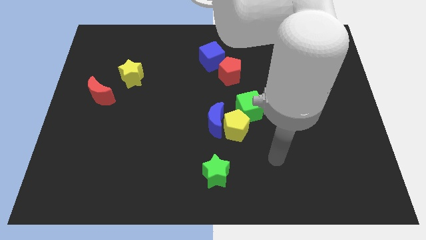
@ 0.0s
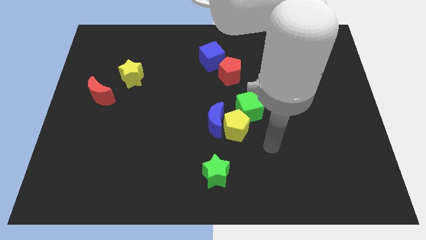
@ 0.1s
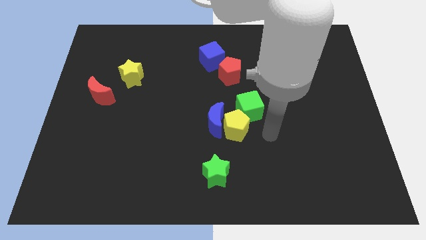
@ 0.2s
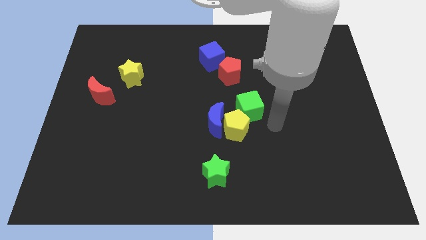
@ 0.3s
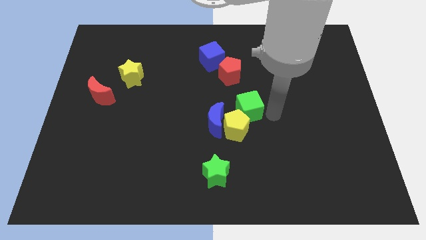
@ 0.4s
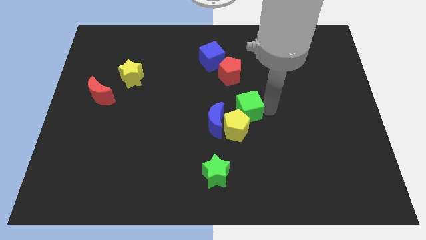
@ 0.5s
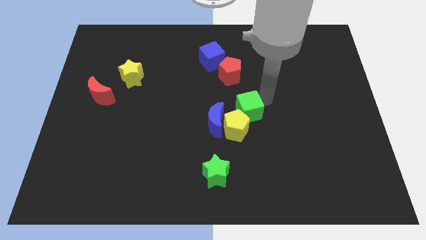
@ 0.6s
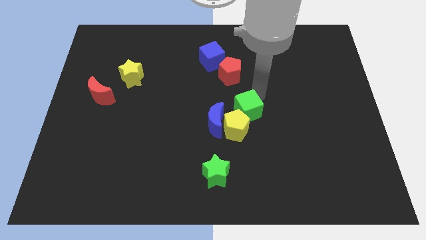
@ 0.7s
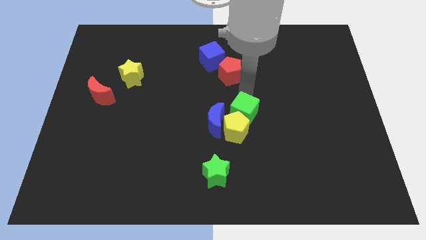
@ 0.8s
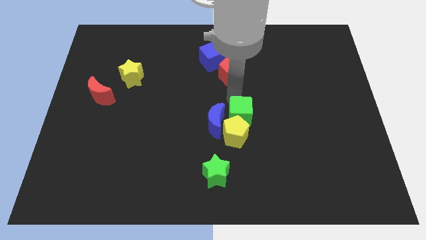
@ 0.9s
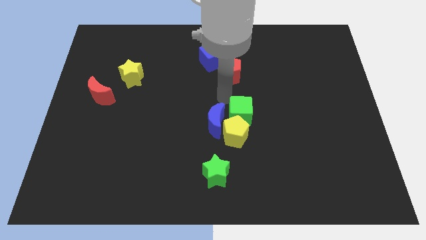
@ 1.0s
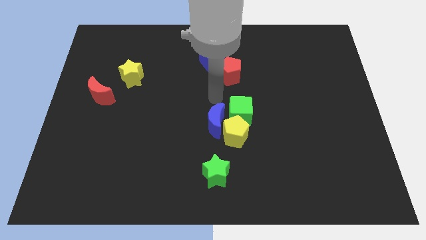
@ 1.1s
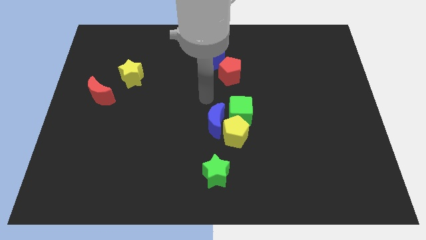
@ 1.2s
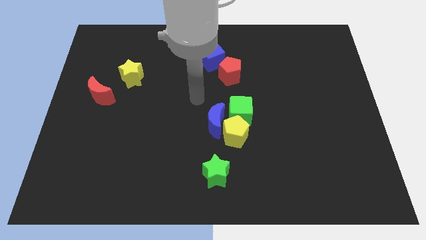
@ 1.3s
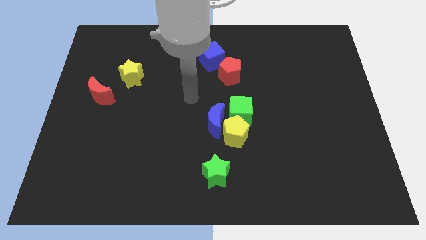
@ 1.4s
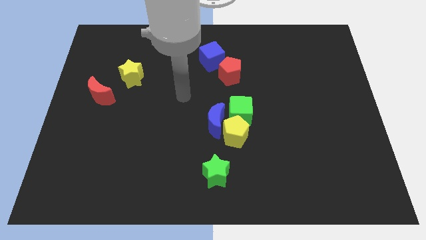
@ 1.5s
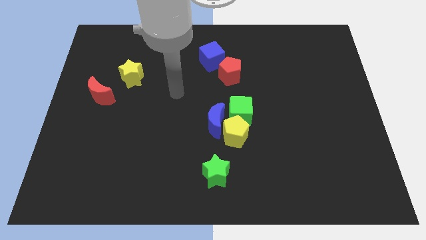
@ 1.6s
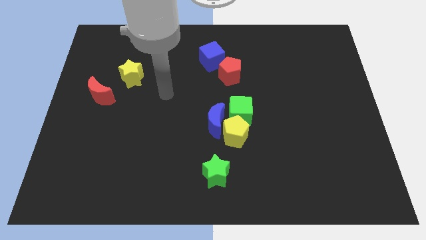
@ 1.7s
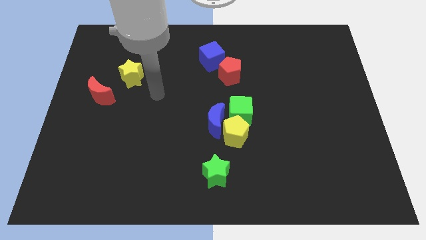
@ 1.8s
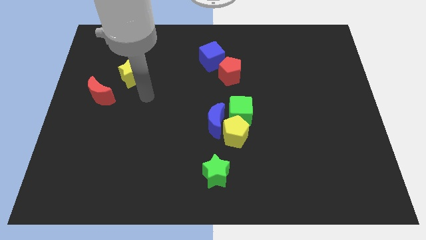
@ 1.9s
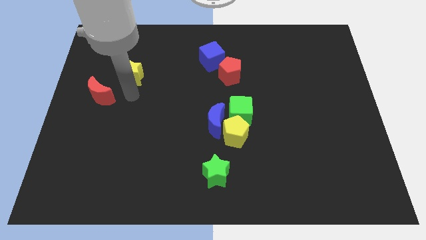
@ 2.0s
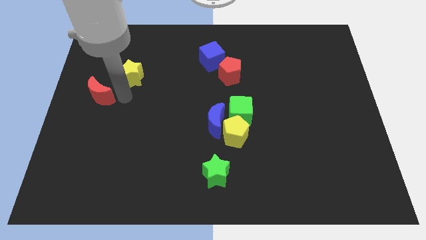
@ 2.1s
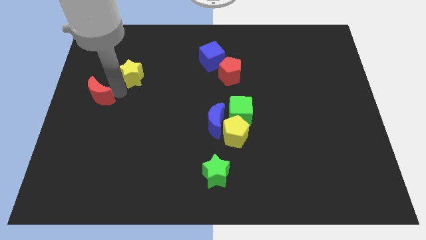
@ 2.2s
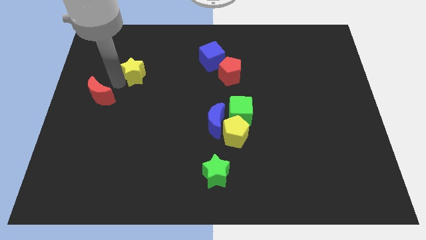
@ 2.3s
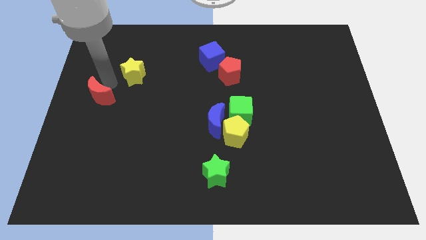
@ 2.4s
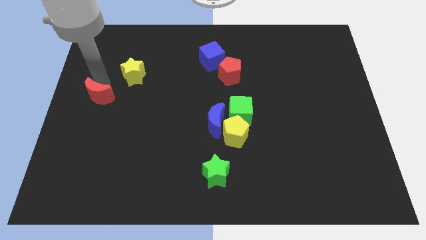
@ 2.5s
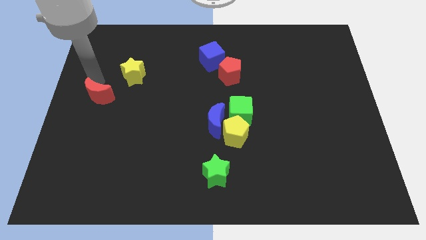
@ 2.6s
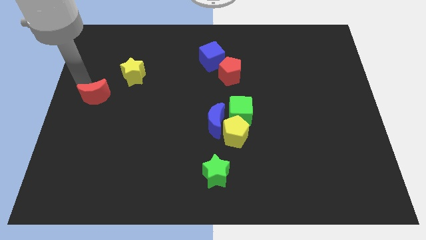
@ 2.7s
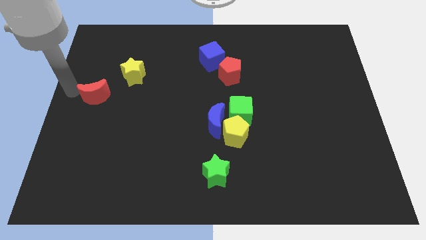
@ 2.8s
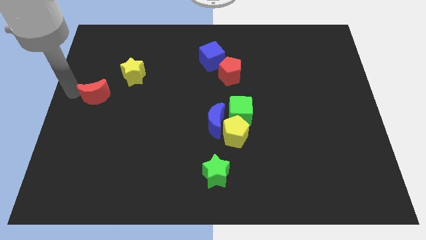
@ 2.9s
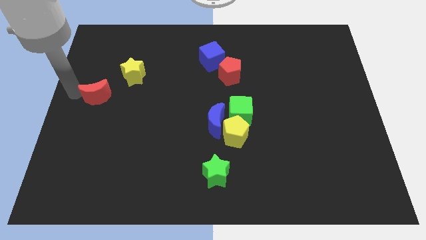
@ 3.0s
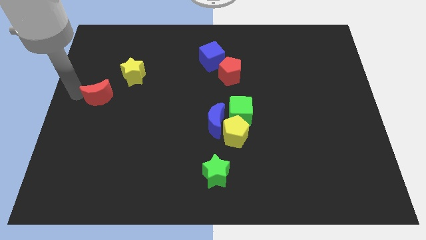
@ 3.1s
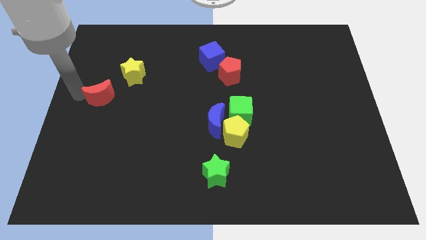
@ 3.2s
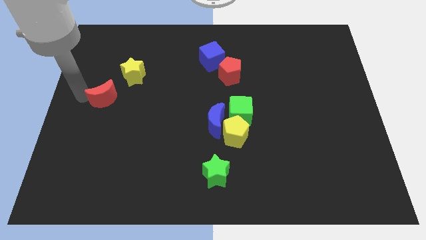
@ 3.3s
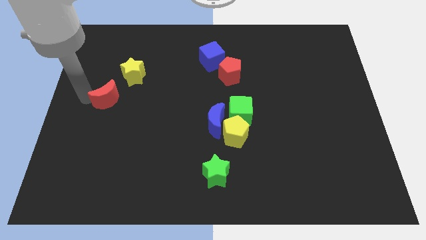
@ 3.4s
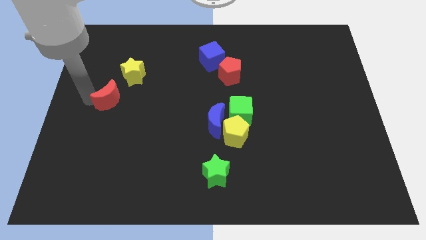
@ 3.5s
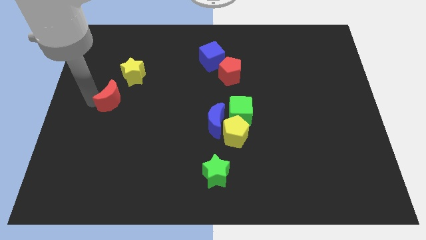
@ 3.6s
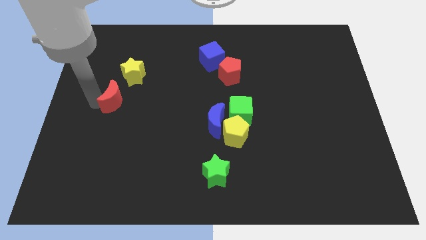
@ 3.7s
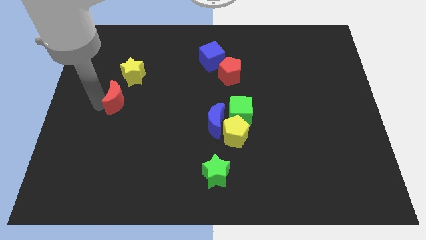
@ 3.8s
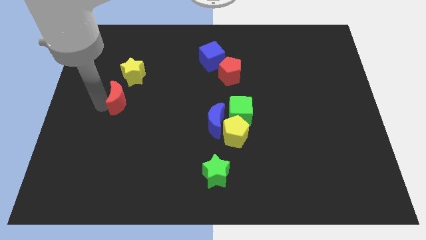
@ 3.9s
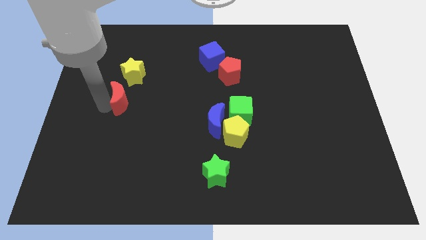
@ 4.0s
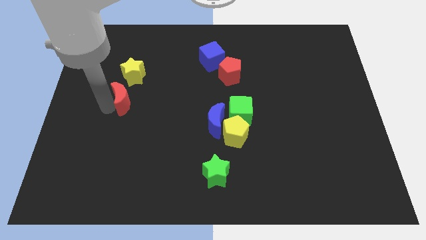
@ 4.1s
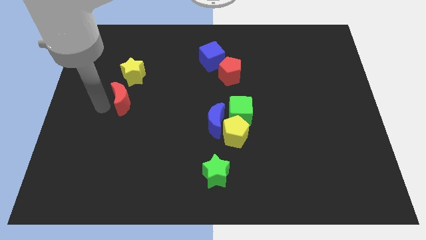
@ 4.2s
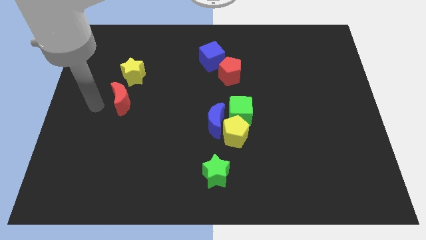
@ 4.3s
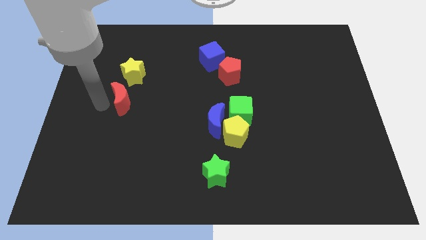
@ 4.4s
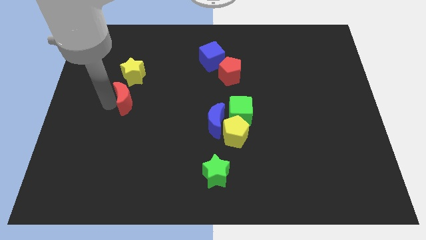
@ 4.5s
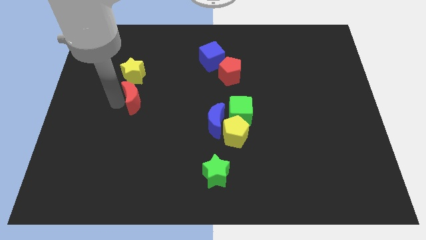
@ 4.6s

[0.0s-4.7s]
slightly slide the red moon right

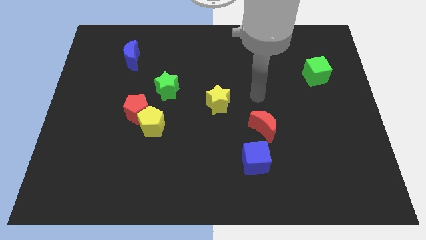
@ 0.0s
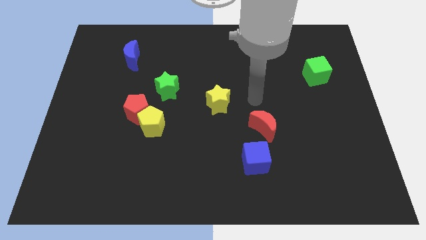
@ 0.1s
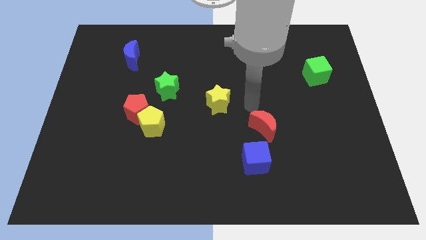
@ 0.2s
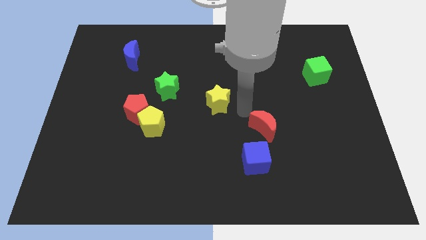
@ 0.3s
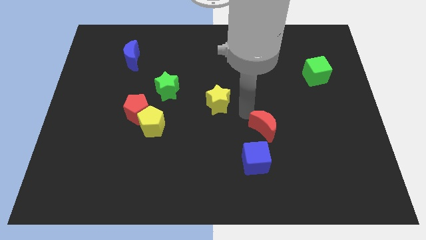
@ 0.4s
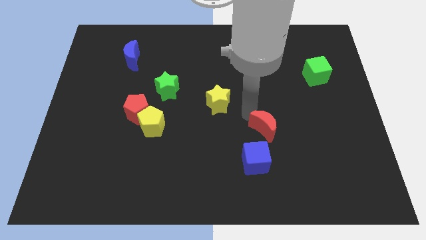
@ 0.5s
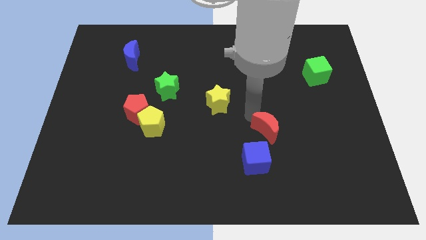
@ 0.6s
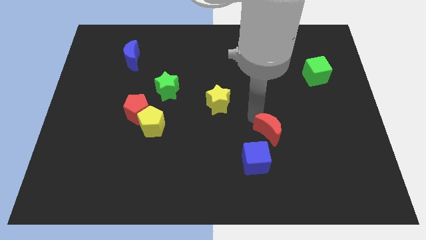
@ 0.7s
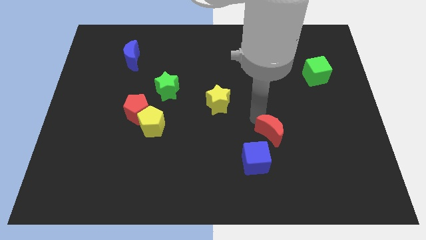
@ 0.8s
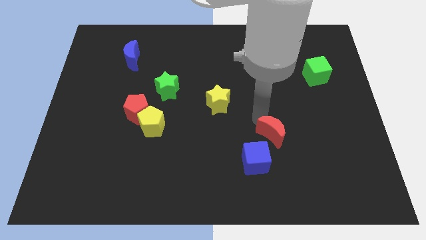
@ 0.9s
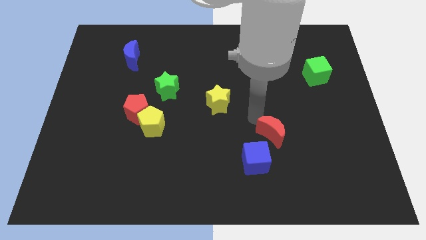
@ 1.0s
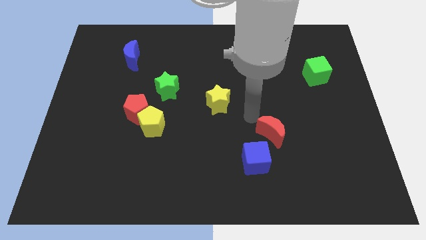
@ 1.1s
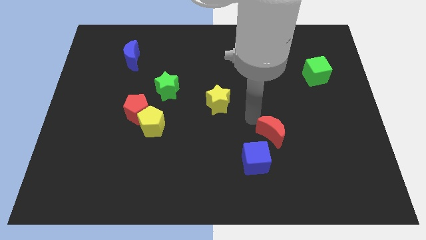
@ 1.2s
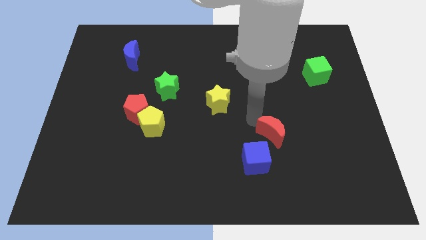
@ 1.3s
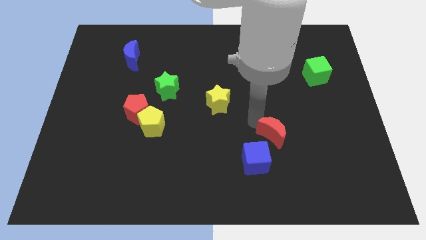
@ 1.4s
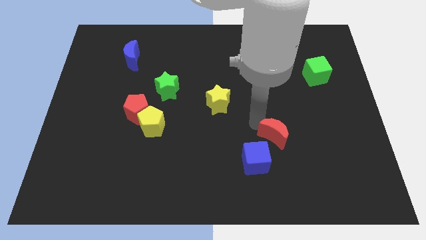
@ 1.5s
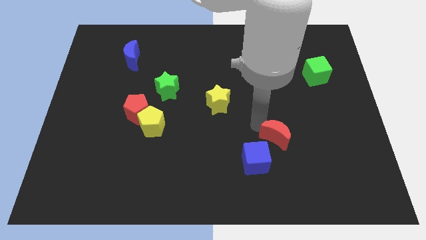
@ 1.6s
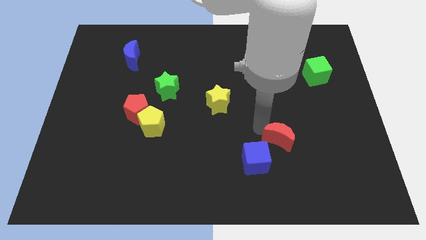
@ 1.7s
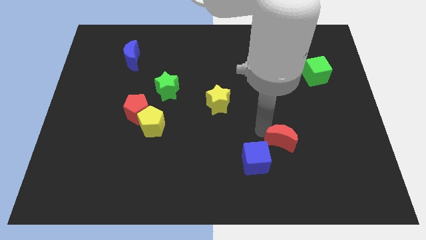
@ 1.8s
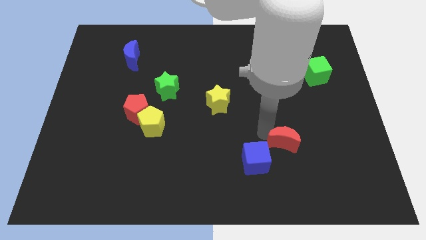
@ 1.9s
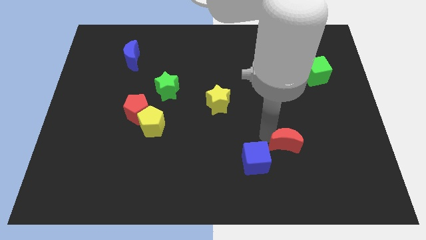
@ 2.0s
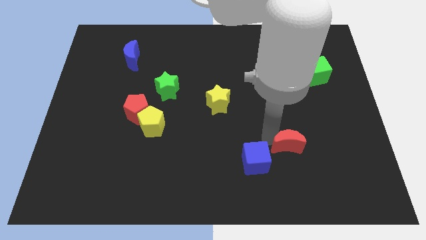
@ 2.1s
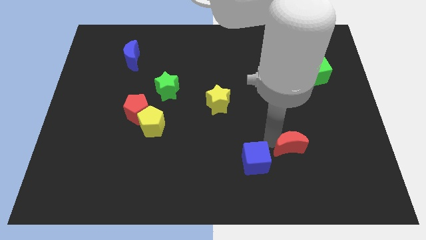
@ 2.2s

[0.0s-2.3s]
push the red moon slightly downwards and right diagonally

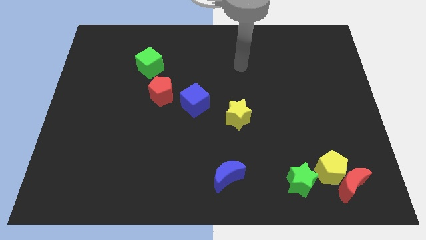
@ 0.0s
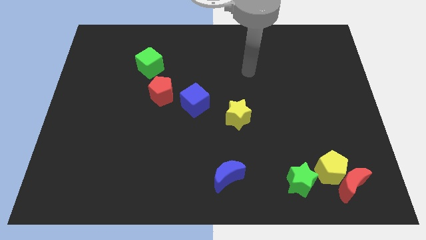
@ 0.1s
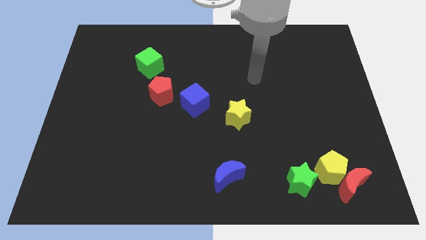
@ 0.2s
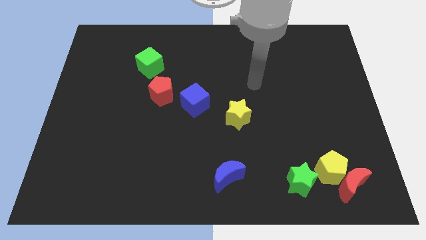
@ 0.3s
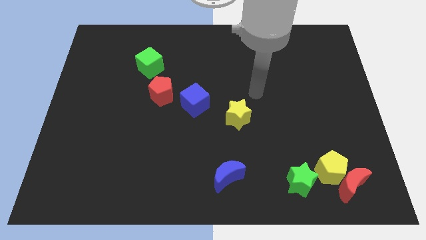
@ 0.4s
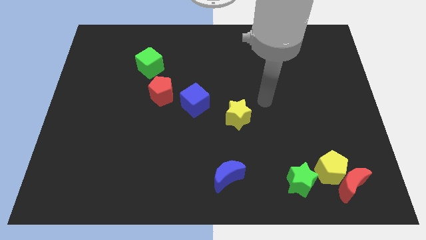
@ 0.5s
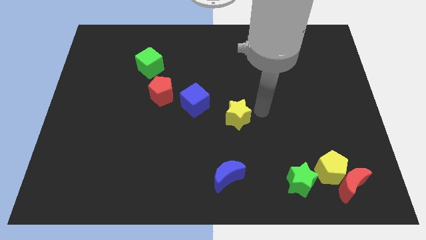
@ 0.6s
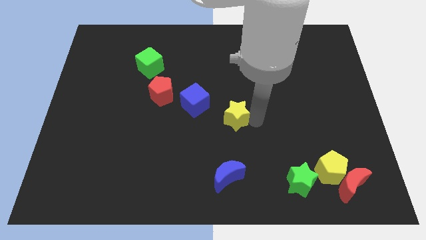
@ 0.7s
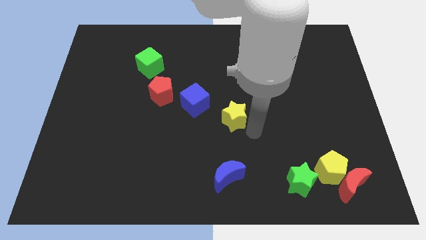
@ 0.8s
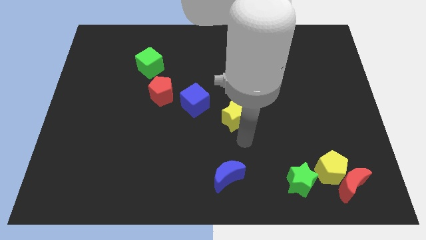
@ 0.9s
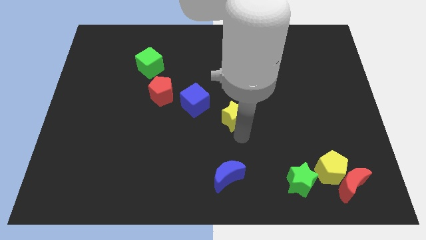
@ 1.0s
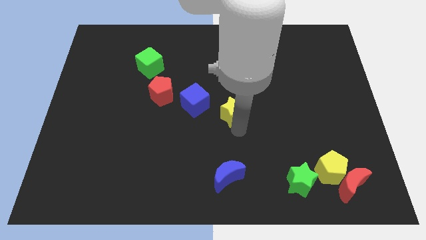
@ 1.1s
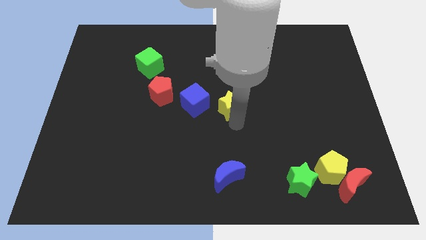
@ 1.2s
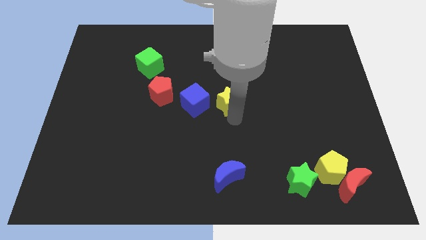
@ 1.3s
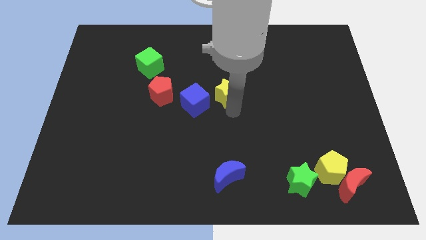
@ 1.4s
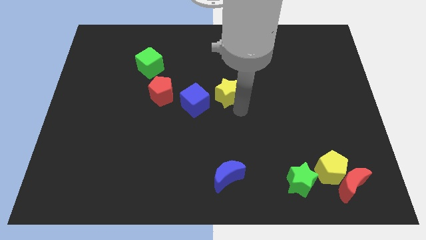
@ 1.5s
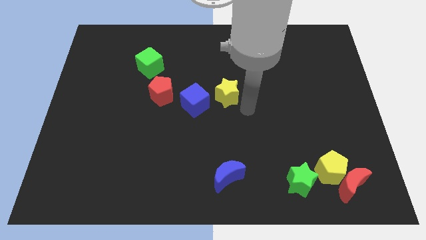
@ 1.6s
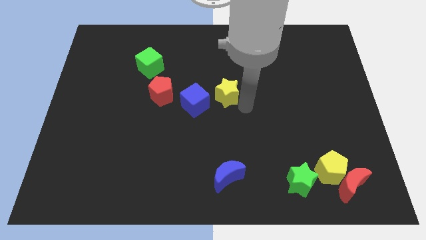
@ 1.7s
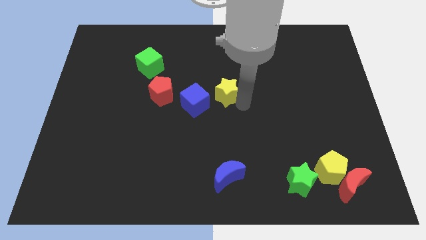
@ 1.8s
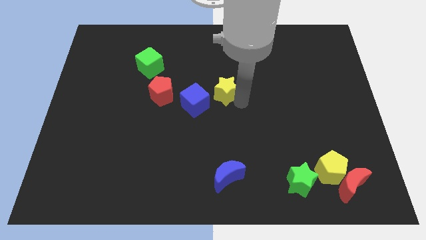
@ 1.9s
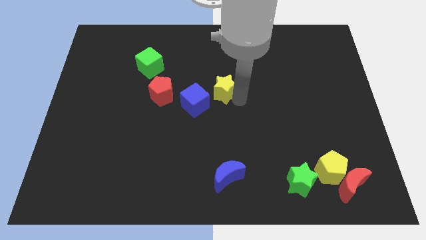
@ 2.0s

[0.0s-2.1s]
push the yellow star up and to the left diagonally a little bit
